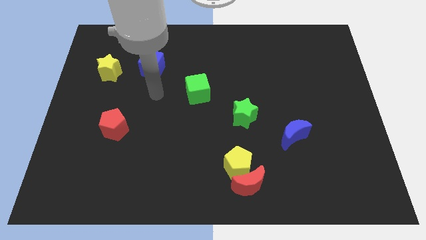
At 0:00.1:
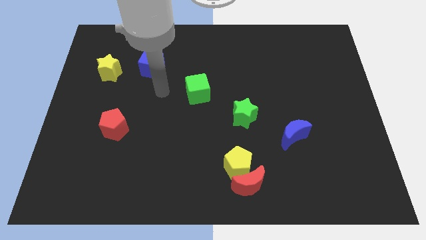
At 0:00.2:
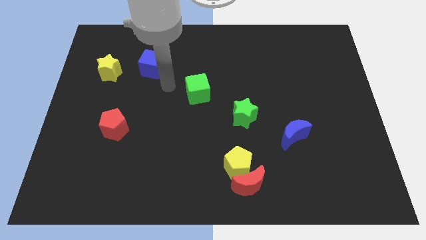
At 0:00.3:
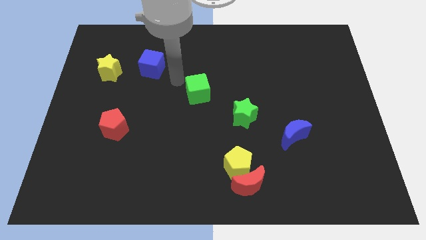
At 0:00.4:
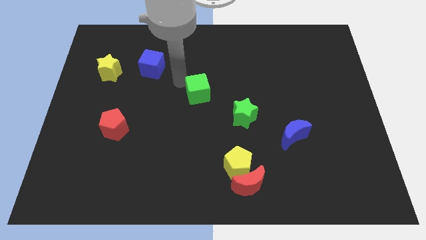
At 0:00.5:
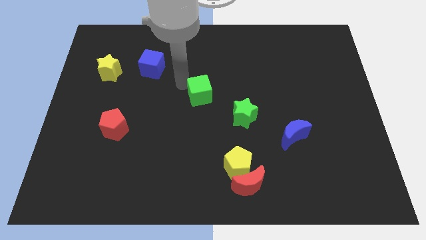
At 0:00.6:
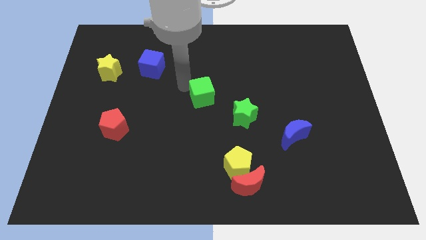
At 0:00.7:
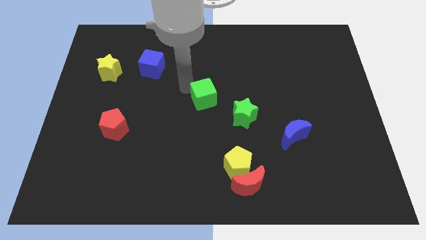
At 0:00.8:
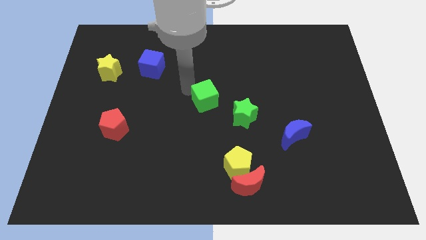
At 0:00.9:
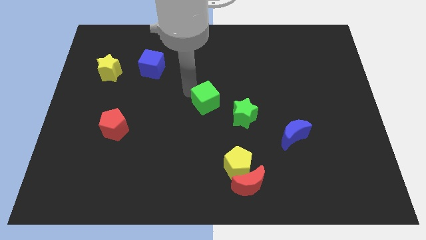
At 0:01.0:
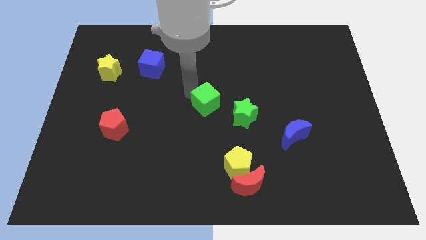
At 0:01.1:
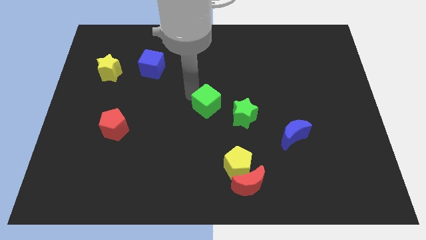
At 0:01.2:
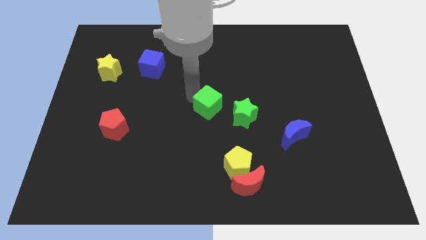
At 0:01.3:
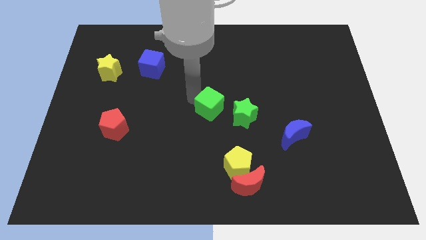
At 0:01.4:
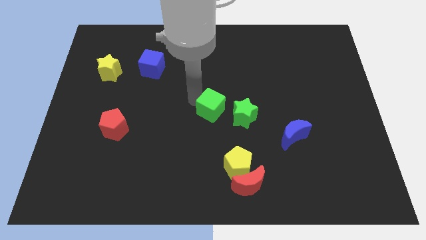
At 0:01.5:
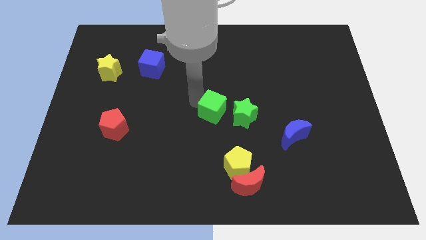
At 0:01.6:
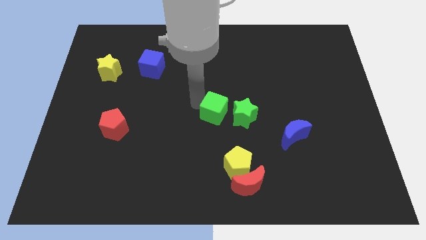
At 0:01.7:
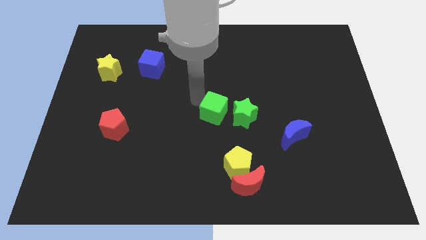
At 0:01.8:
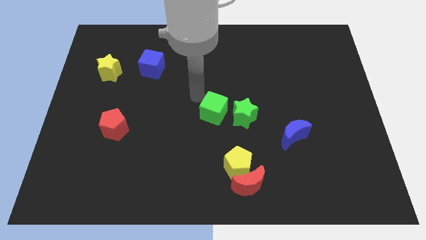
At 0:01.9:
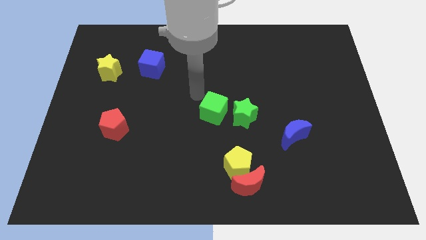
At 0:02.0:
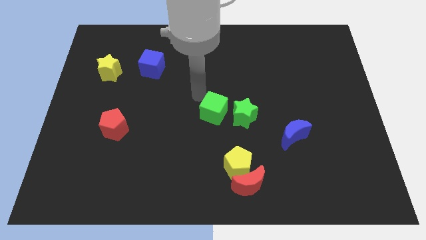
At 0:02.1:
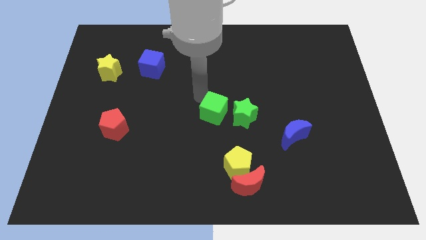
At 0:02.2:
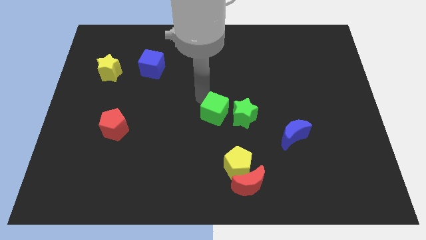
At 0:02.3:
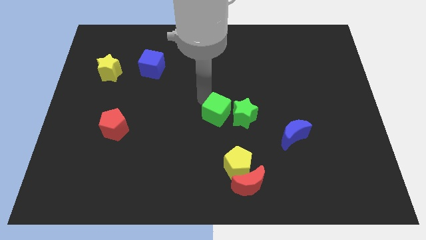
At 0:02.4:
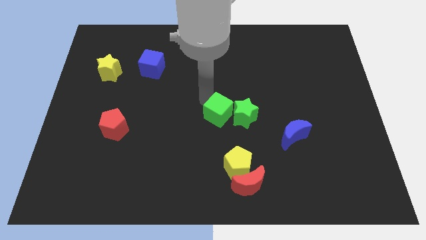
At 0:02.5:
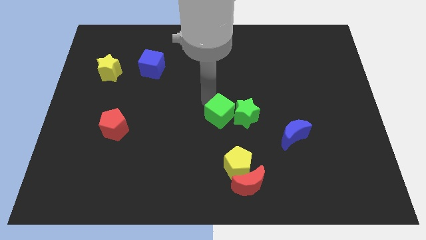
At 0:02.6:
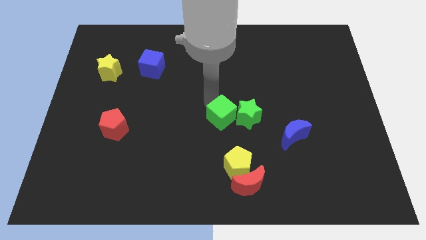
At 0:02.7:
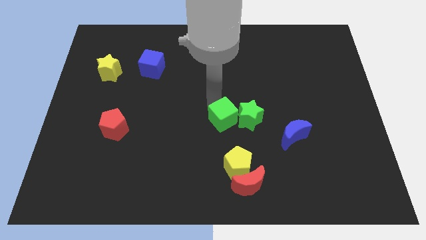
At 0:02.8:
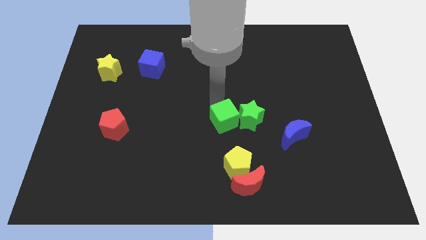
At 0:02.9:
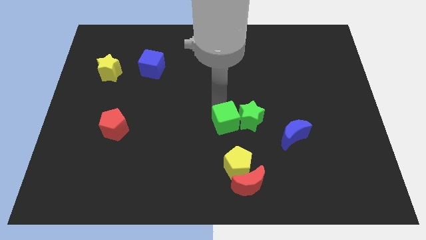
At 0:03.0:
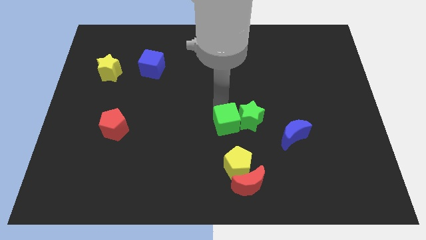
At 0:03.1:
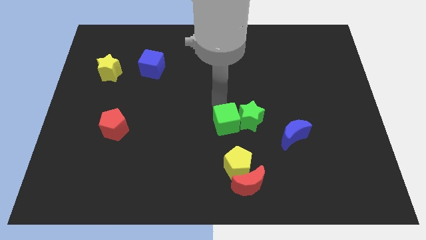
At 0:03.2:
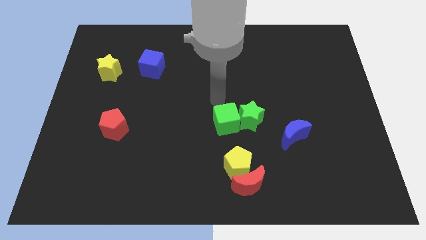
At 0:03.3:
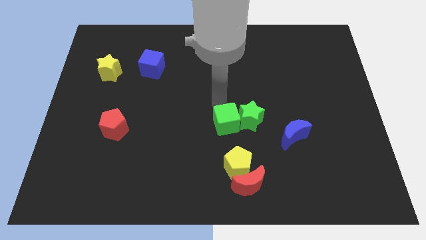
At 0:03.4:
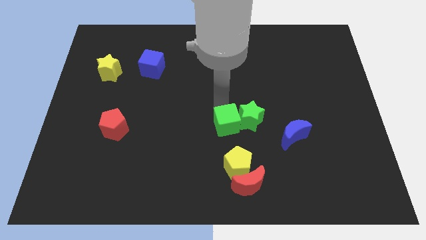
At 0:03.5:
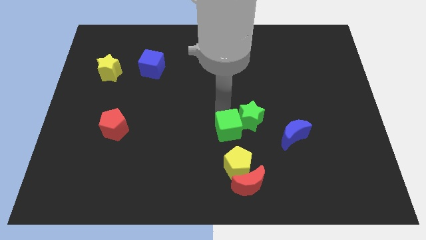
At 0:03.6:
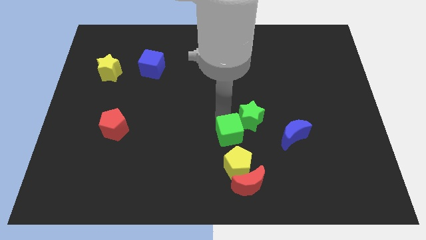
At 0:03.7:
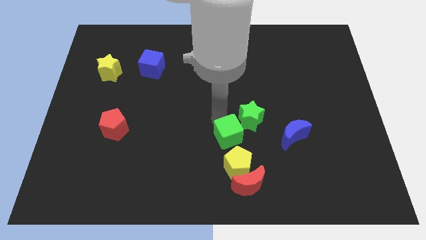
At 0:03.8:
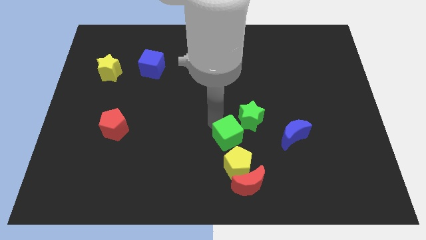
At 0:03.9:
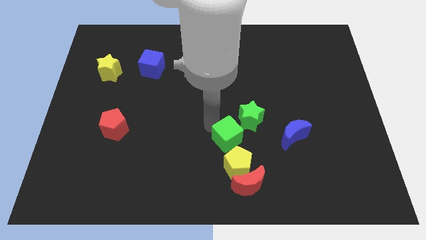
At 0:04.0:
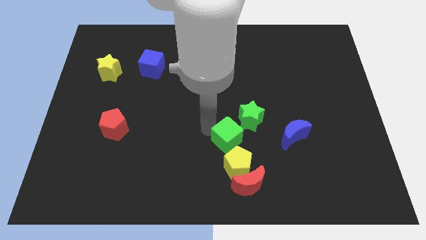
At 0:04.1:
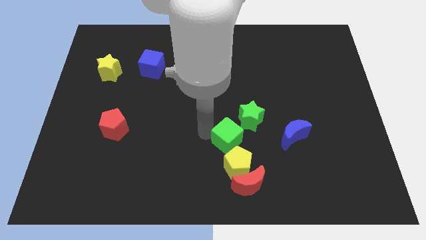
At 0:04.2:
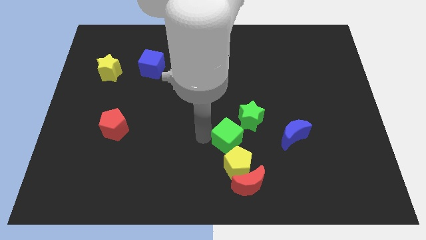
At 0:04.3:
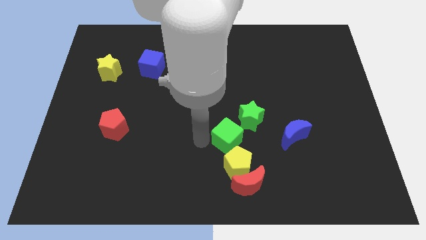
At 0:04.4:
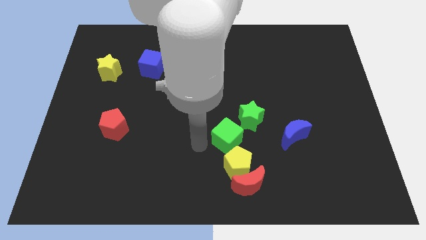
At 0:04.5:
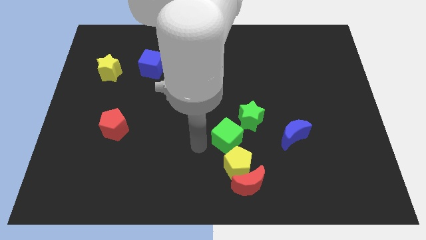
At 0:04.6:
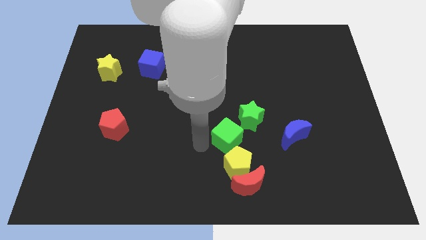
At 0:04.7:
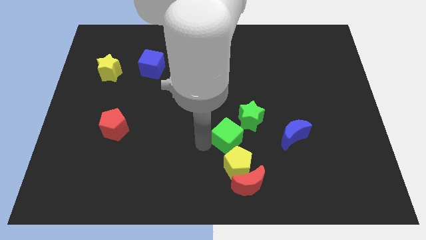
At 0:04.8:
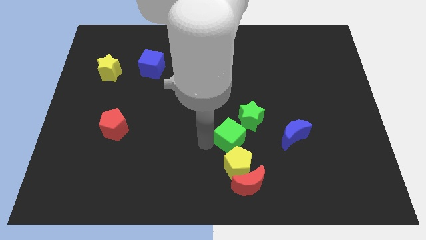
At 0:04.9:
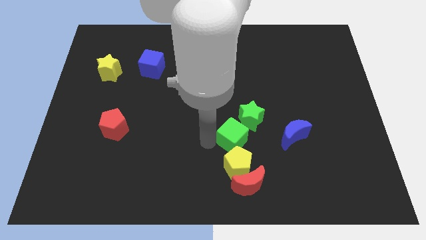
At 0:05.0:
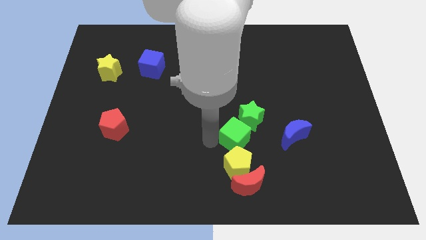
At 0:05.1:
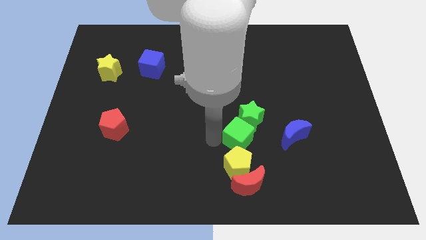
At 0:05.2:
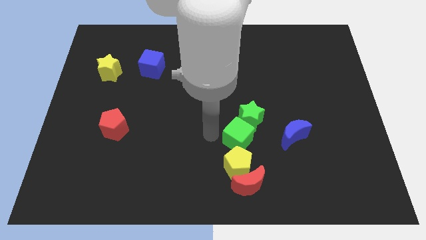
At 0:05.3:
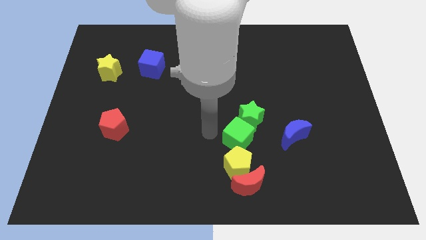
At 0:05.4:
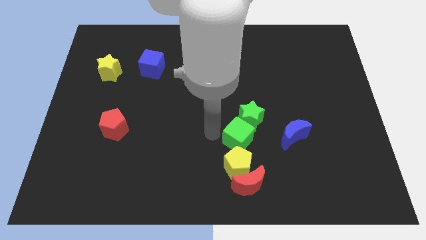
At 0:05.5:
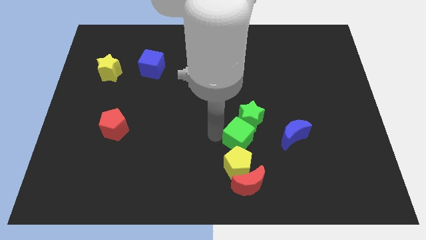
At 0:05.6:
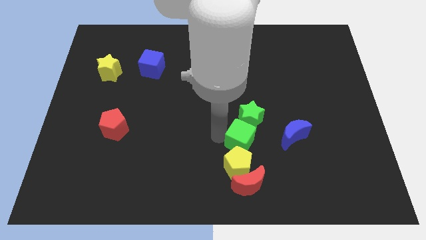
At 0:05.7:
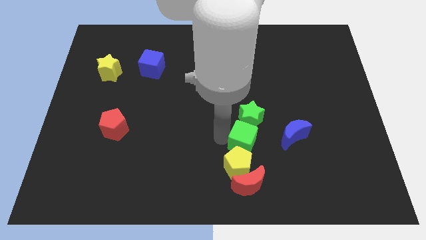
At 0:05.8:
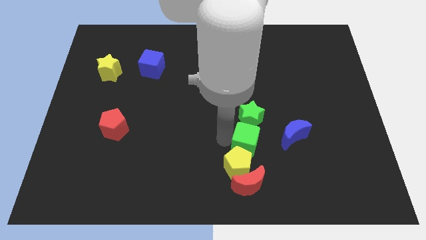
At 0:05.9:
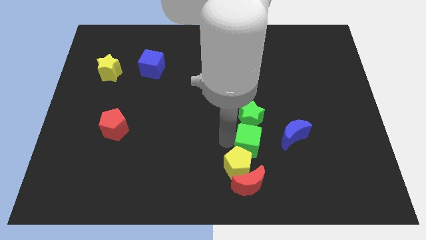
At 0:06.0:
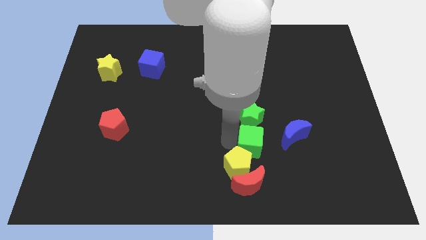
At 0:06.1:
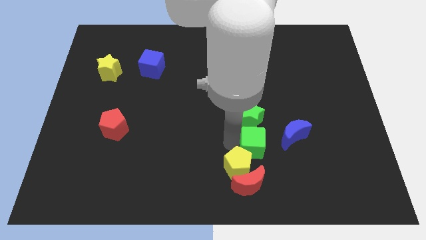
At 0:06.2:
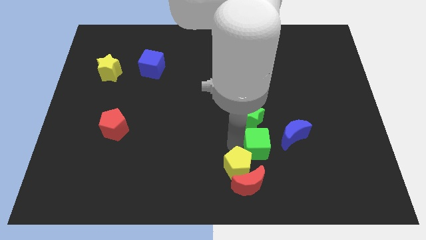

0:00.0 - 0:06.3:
put the green cube just right of the yellow pentagon
